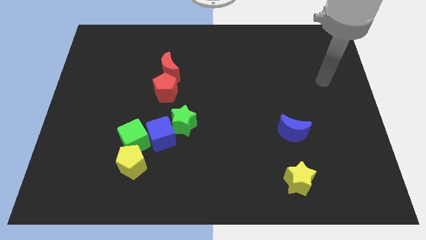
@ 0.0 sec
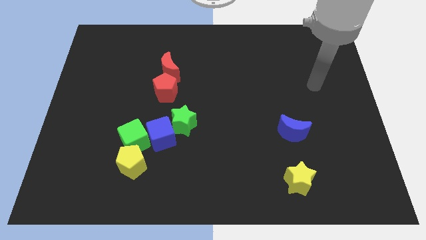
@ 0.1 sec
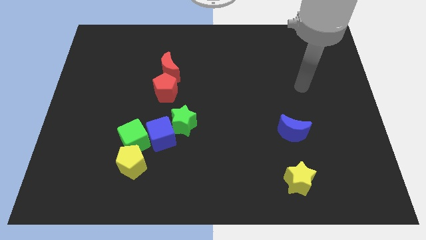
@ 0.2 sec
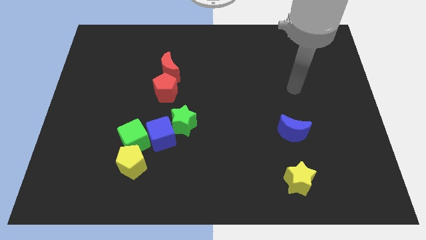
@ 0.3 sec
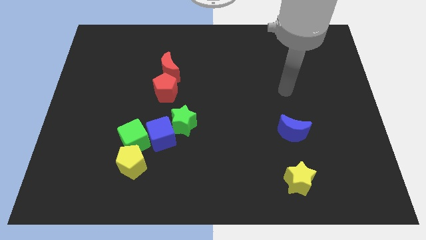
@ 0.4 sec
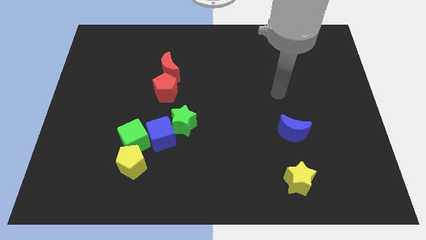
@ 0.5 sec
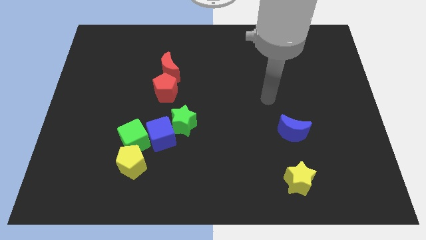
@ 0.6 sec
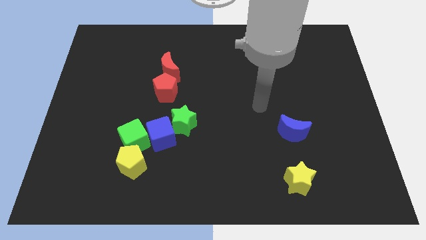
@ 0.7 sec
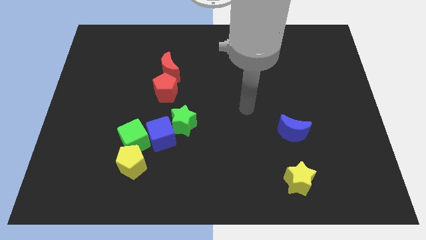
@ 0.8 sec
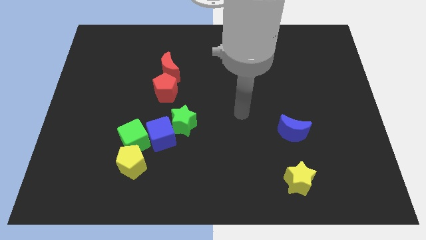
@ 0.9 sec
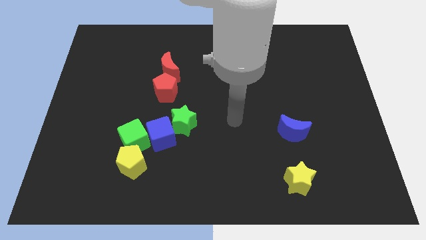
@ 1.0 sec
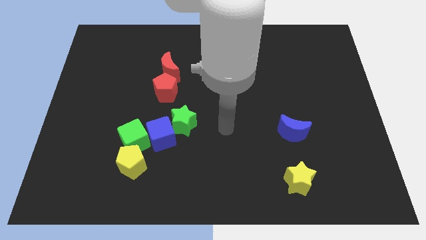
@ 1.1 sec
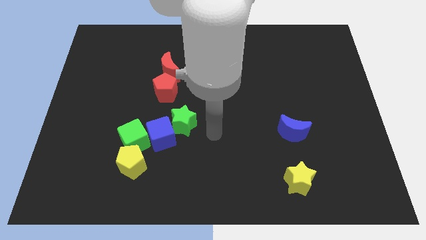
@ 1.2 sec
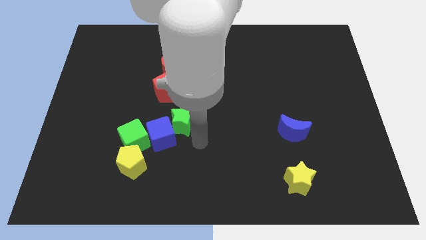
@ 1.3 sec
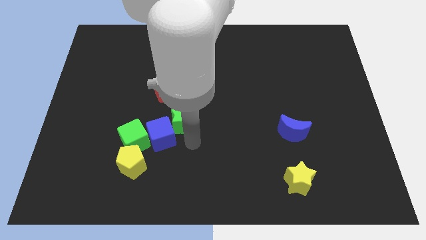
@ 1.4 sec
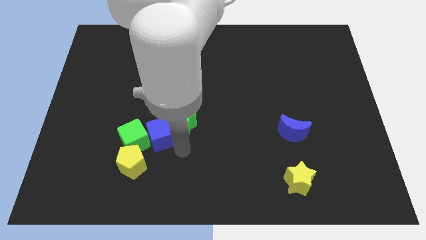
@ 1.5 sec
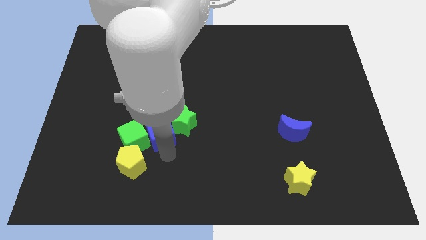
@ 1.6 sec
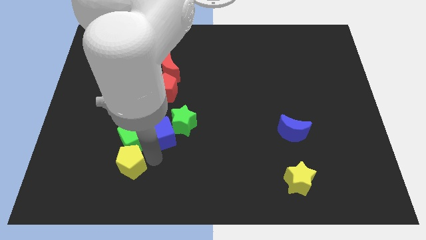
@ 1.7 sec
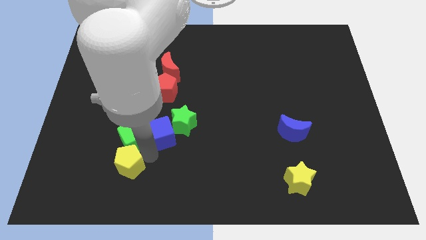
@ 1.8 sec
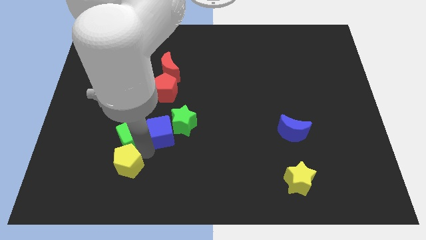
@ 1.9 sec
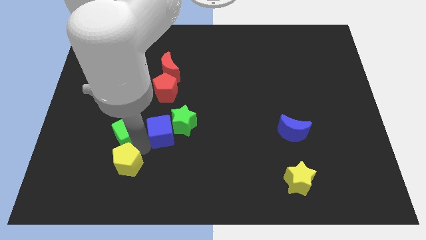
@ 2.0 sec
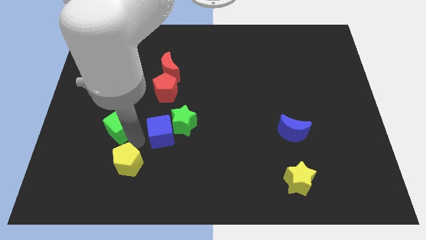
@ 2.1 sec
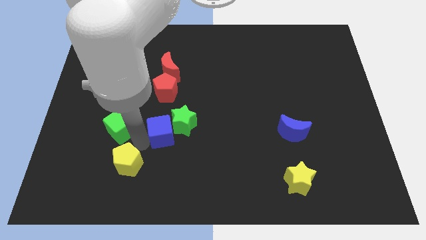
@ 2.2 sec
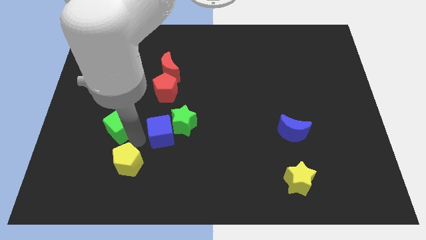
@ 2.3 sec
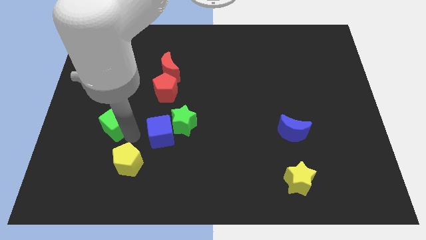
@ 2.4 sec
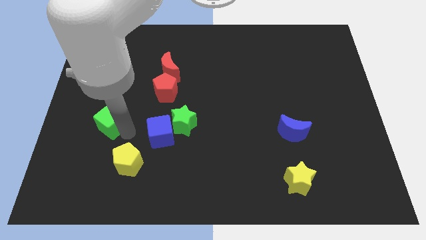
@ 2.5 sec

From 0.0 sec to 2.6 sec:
move the green cube away from the blue cube and yellow pentagon

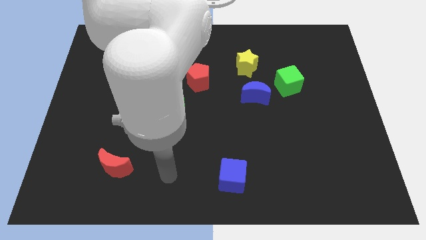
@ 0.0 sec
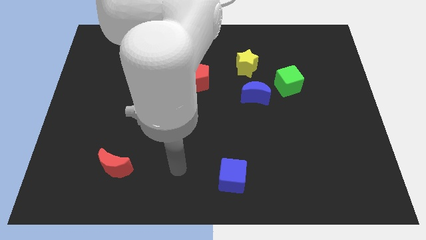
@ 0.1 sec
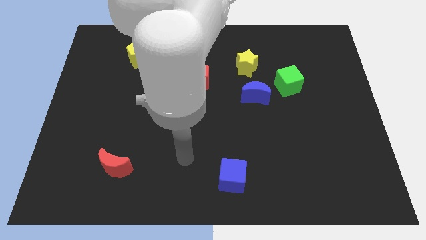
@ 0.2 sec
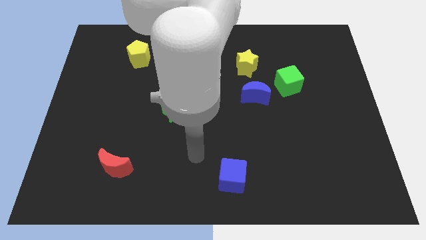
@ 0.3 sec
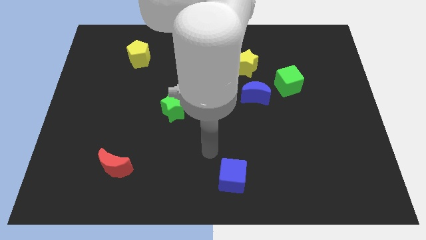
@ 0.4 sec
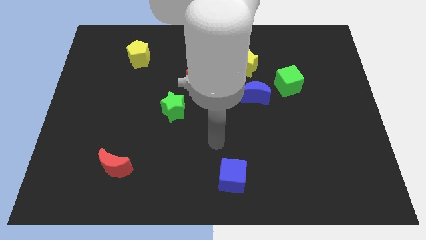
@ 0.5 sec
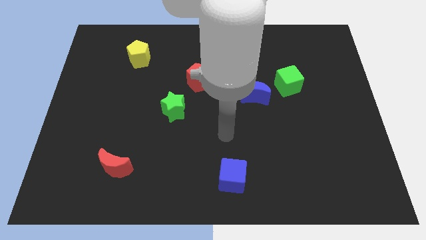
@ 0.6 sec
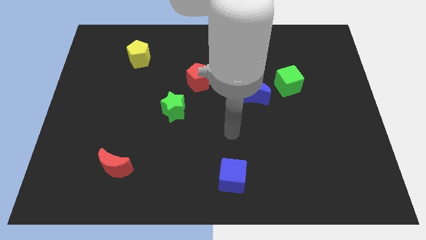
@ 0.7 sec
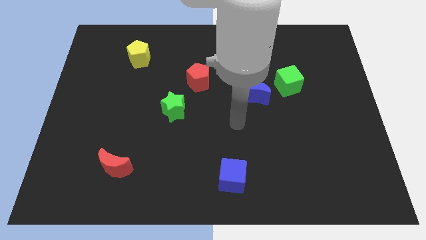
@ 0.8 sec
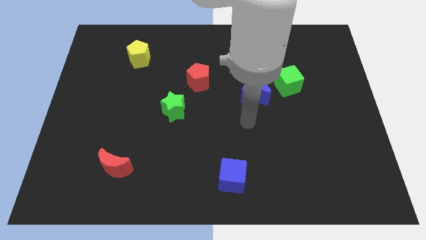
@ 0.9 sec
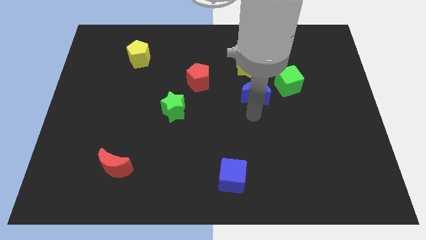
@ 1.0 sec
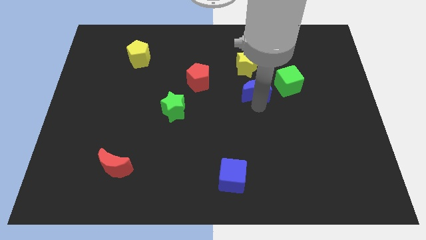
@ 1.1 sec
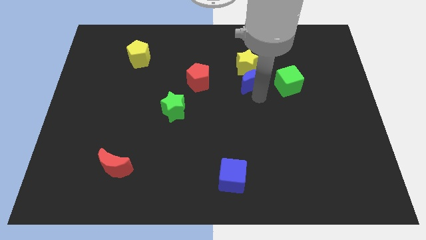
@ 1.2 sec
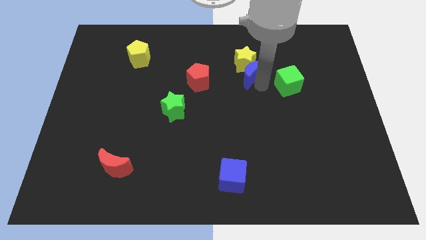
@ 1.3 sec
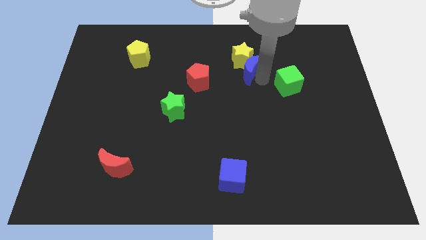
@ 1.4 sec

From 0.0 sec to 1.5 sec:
separate the green cube from the blue moon

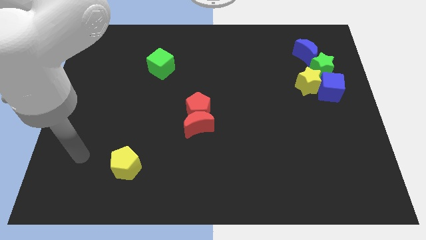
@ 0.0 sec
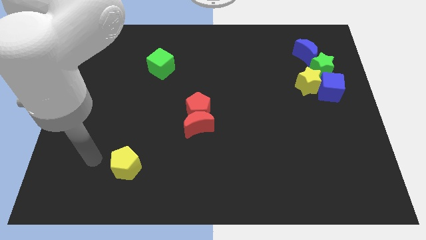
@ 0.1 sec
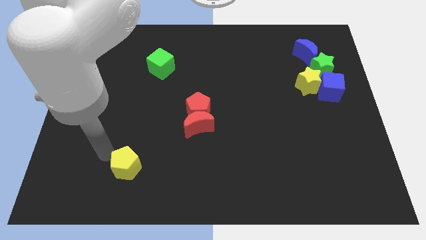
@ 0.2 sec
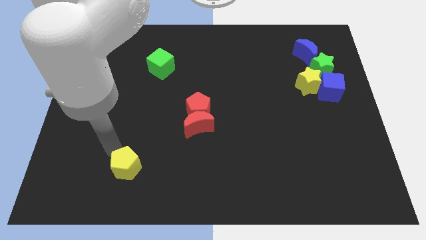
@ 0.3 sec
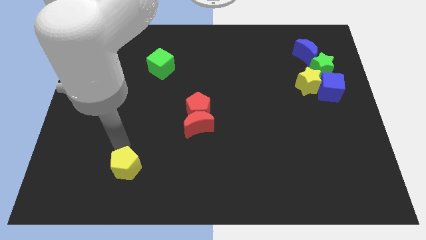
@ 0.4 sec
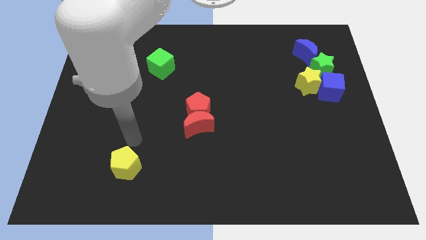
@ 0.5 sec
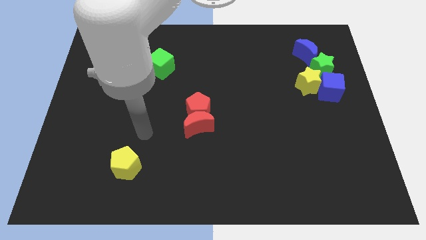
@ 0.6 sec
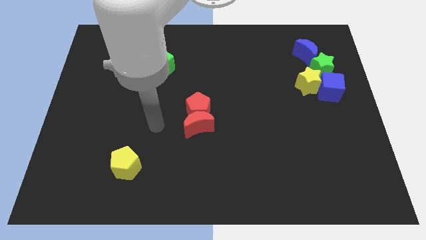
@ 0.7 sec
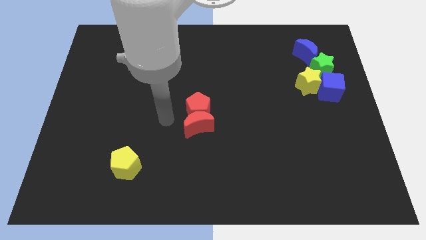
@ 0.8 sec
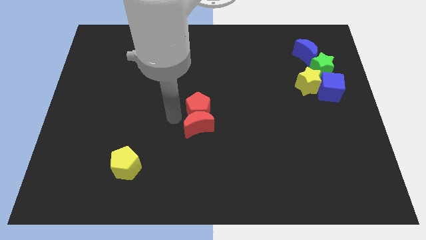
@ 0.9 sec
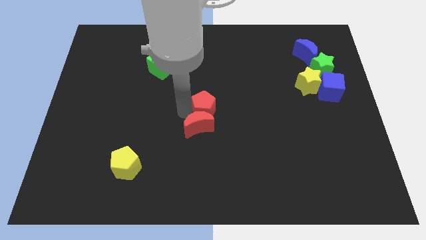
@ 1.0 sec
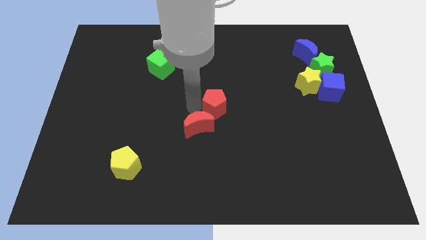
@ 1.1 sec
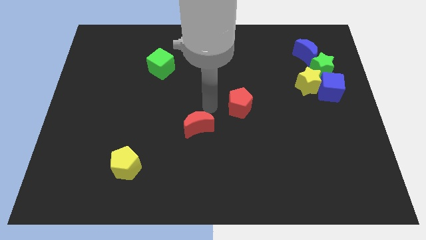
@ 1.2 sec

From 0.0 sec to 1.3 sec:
pull the red moon apart from the red pentagon

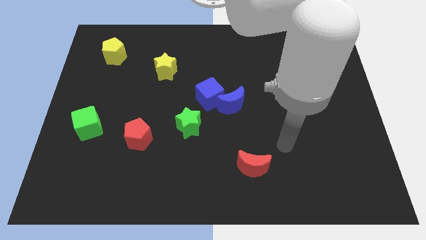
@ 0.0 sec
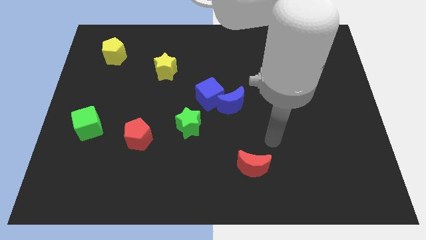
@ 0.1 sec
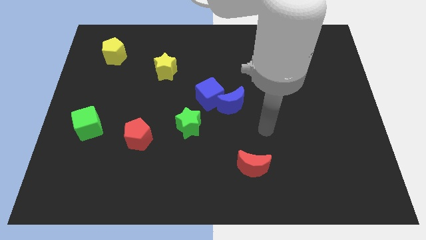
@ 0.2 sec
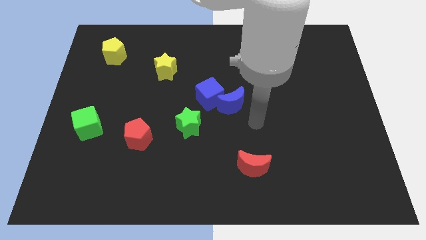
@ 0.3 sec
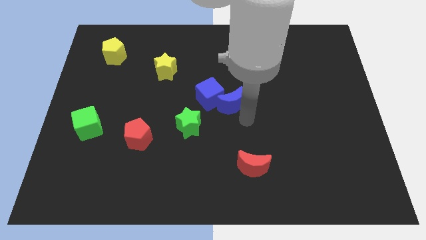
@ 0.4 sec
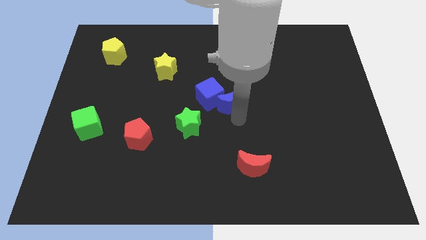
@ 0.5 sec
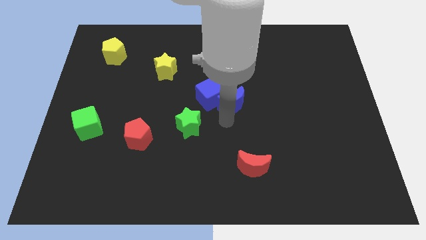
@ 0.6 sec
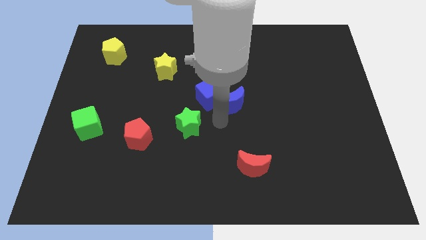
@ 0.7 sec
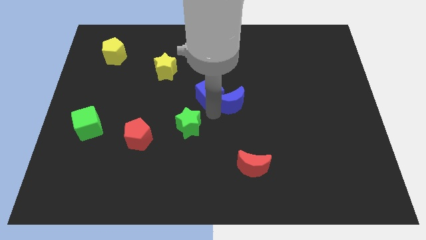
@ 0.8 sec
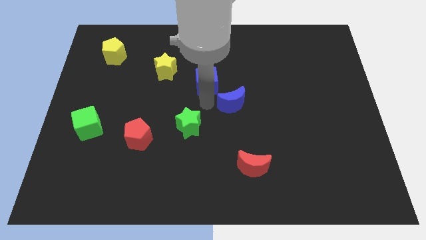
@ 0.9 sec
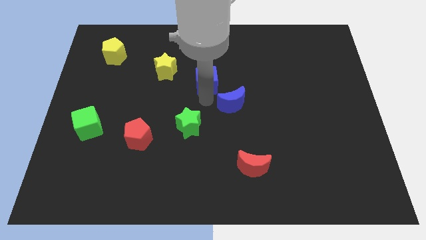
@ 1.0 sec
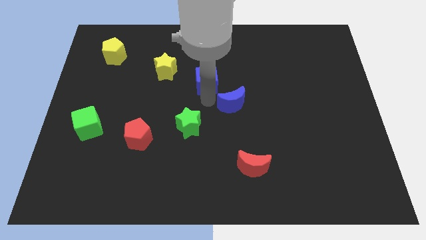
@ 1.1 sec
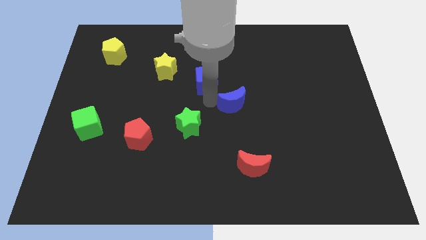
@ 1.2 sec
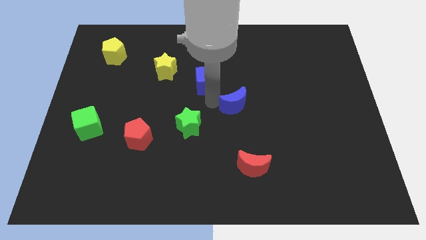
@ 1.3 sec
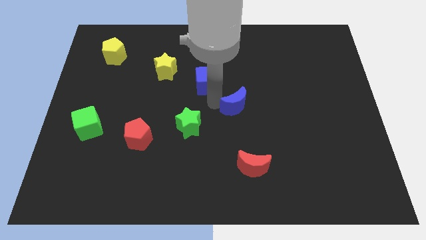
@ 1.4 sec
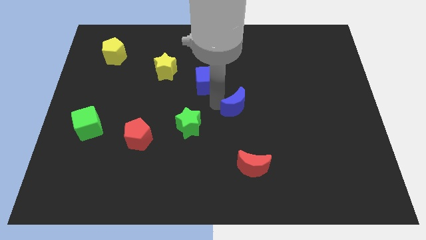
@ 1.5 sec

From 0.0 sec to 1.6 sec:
pull the blue moon apart from the blue cube

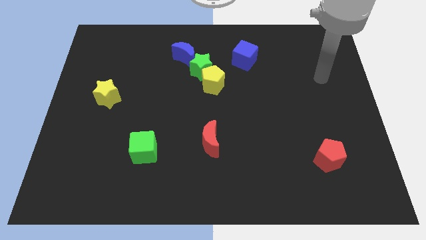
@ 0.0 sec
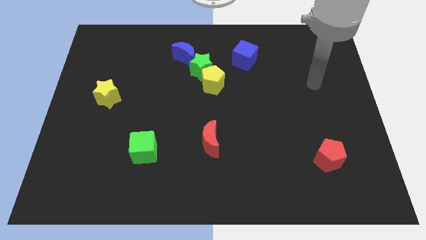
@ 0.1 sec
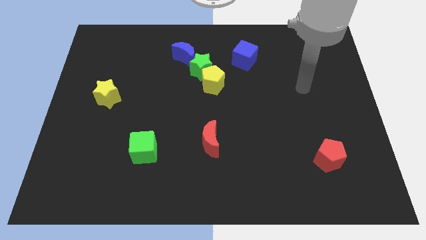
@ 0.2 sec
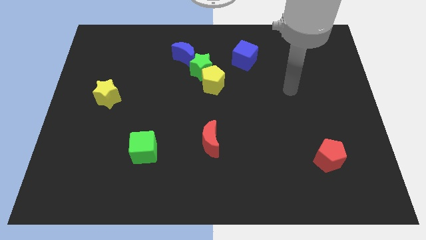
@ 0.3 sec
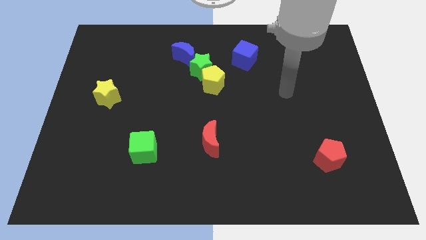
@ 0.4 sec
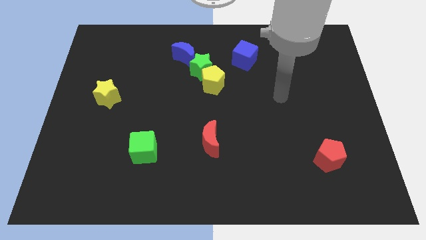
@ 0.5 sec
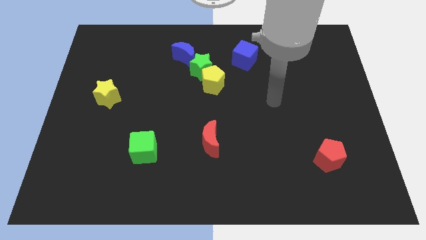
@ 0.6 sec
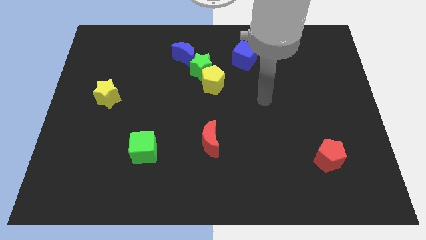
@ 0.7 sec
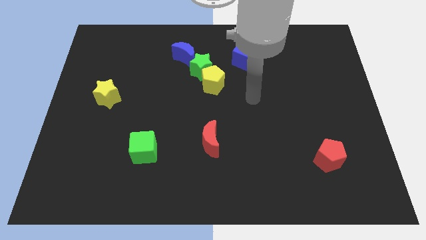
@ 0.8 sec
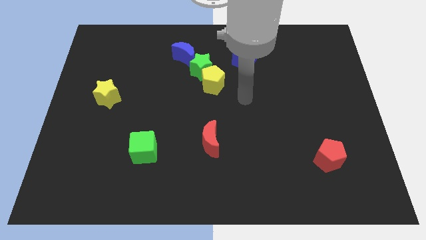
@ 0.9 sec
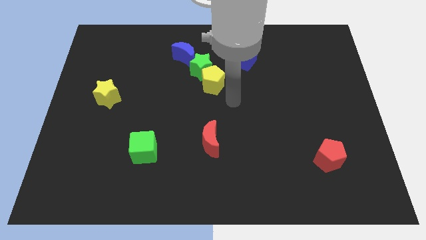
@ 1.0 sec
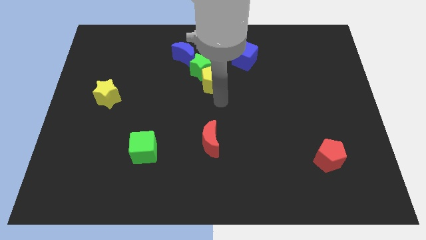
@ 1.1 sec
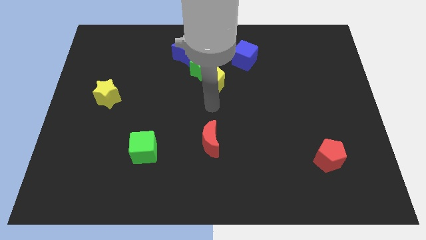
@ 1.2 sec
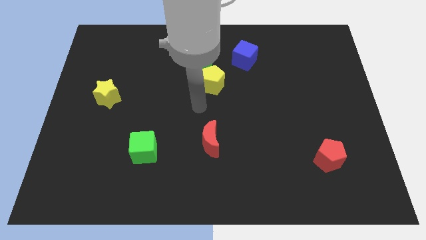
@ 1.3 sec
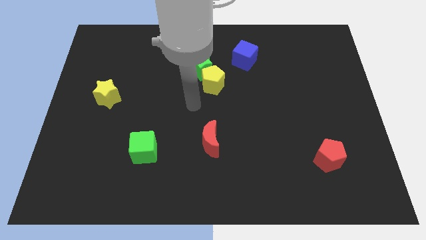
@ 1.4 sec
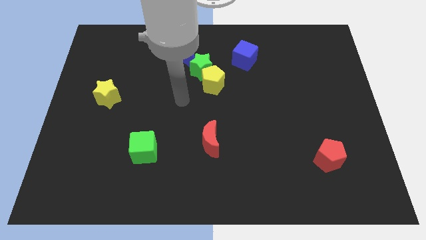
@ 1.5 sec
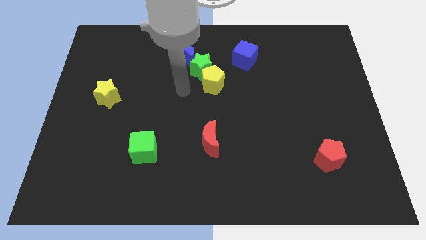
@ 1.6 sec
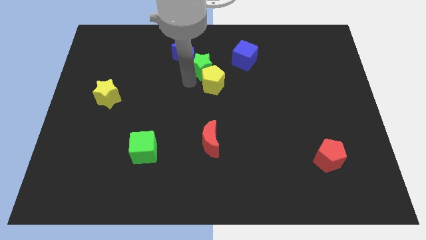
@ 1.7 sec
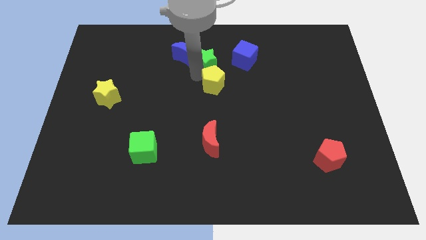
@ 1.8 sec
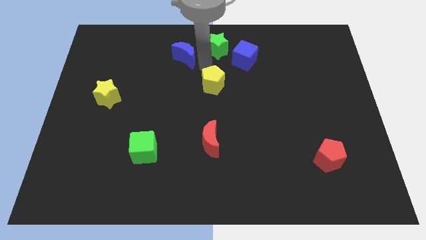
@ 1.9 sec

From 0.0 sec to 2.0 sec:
pull the yellow pentagon apart from the green star

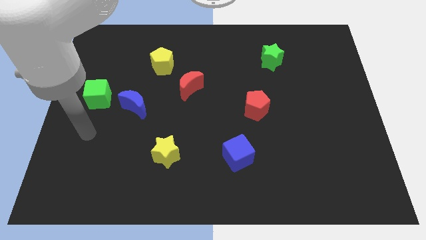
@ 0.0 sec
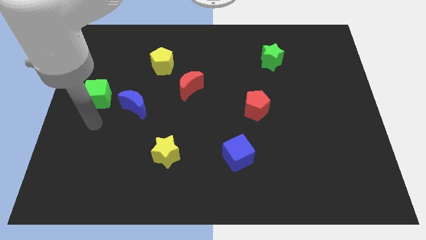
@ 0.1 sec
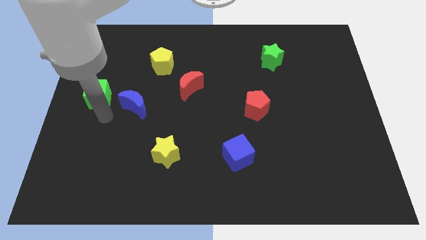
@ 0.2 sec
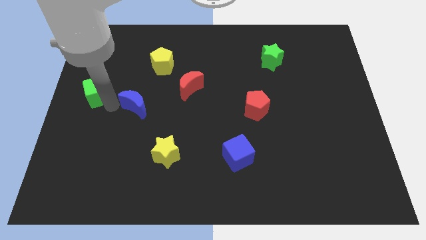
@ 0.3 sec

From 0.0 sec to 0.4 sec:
move the blue moon away from the green cube
